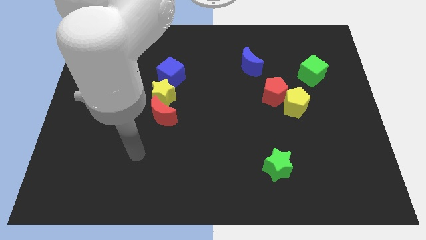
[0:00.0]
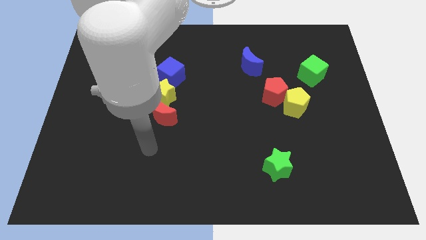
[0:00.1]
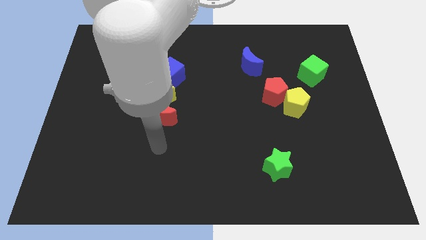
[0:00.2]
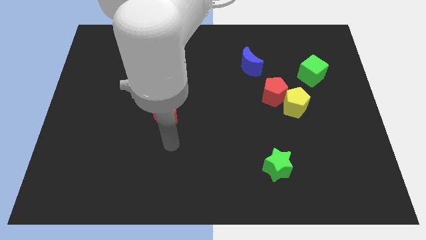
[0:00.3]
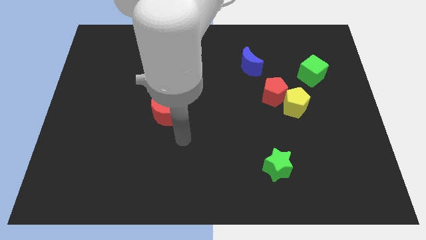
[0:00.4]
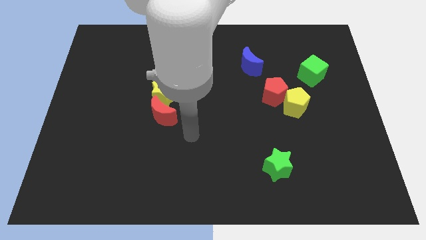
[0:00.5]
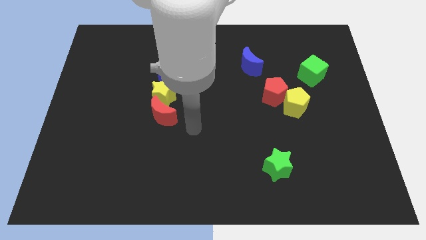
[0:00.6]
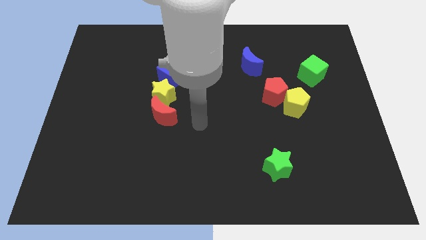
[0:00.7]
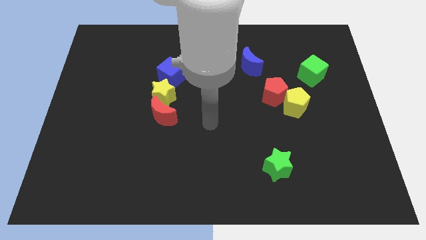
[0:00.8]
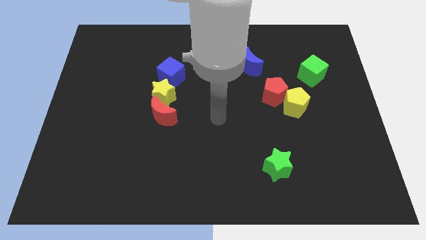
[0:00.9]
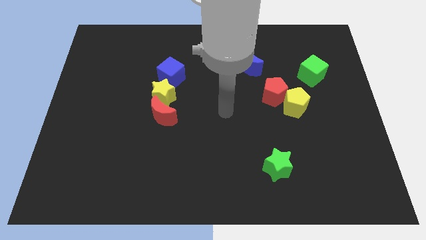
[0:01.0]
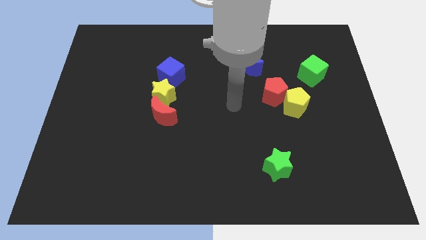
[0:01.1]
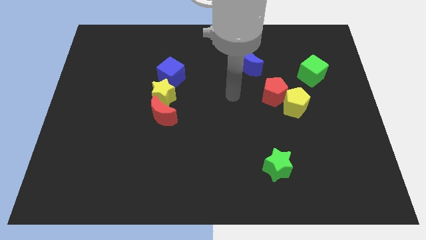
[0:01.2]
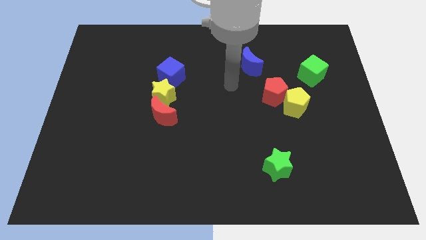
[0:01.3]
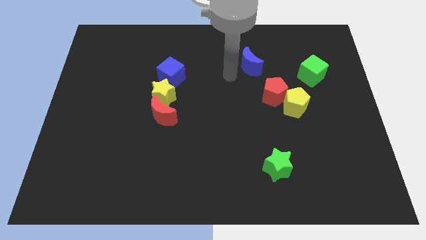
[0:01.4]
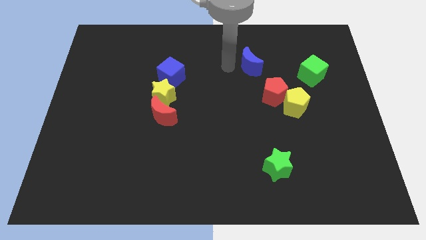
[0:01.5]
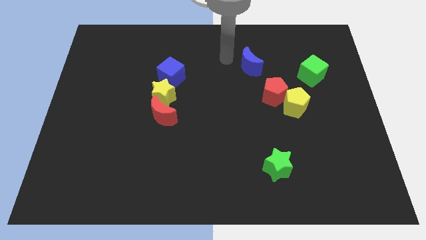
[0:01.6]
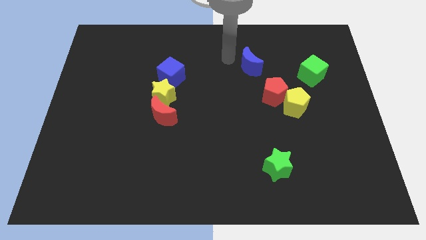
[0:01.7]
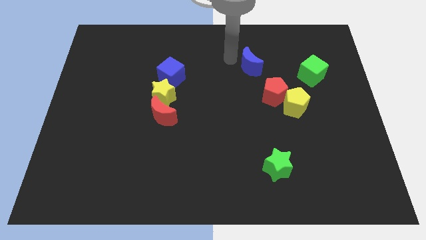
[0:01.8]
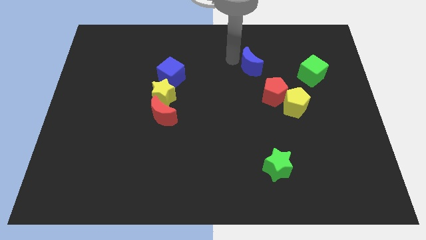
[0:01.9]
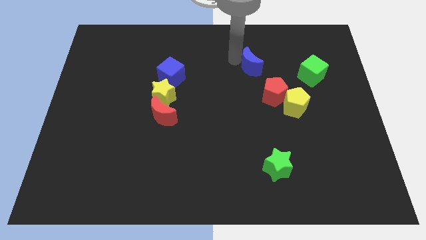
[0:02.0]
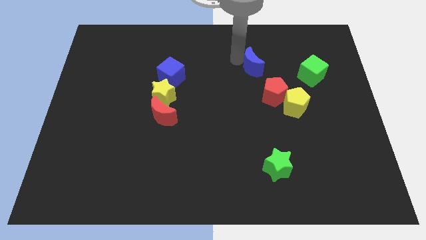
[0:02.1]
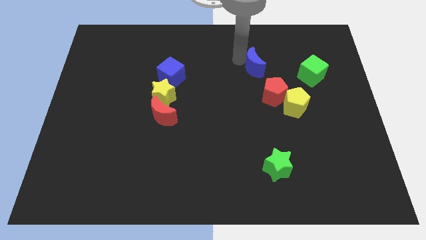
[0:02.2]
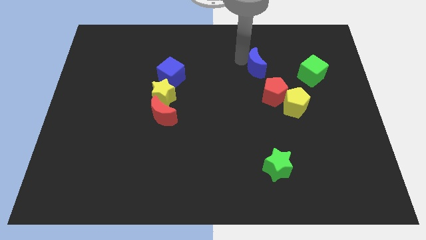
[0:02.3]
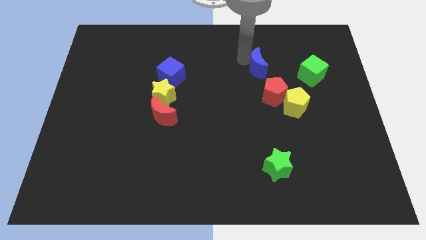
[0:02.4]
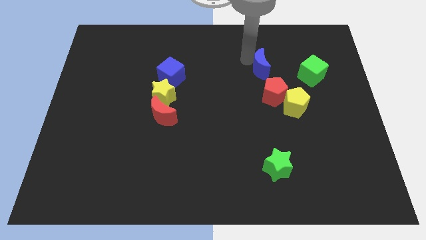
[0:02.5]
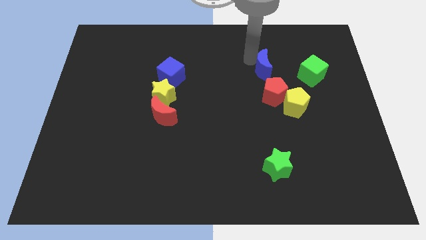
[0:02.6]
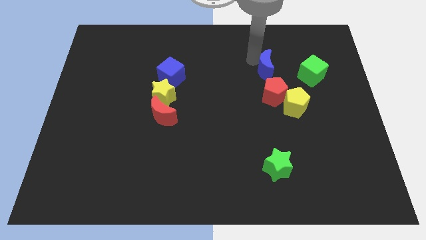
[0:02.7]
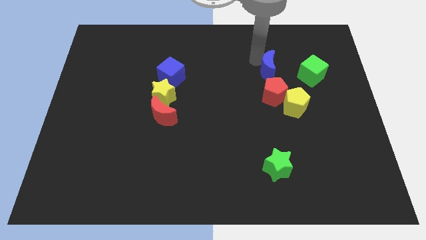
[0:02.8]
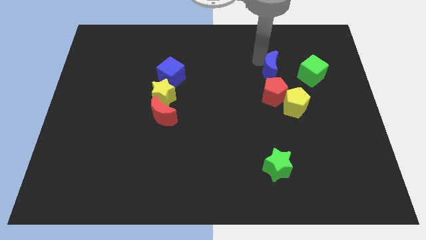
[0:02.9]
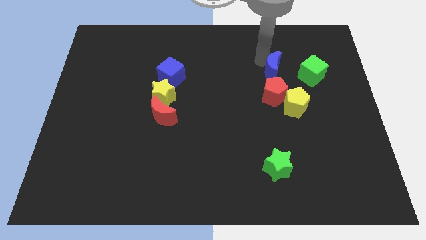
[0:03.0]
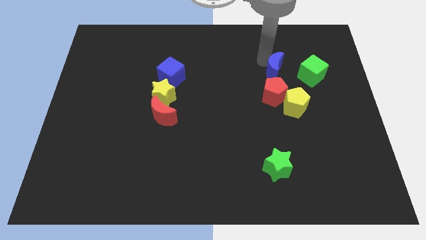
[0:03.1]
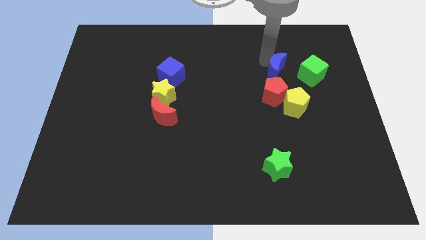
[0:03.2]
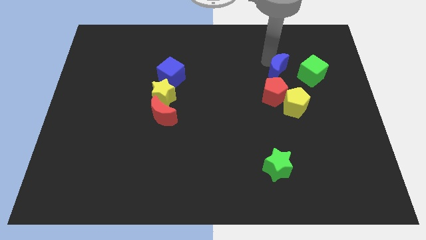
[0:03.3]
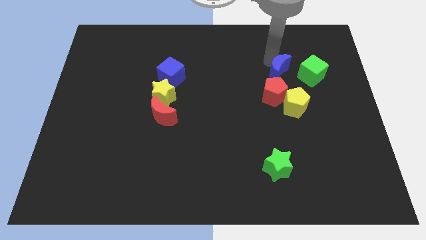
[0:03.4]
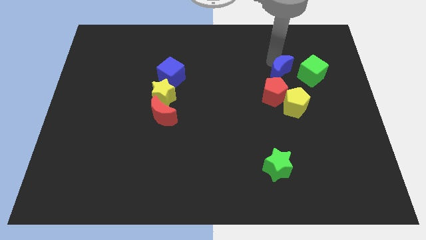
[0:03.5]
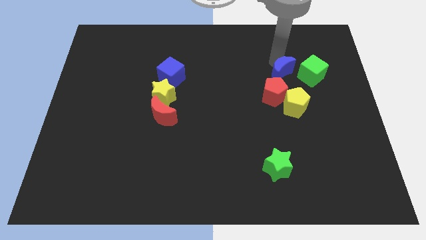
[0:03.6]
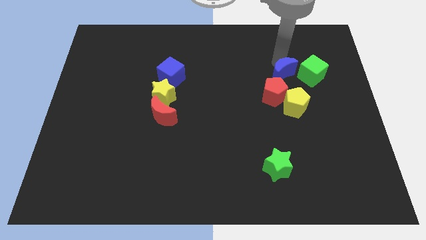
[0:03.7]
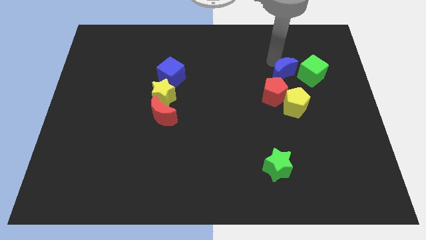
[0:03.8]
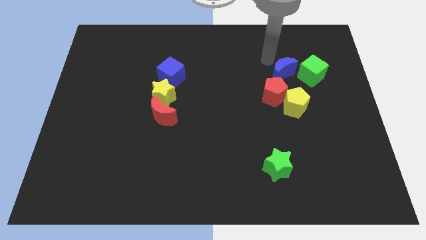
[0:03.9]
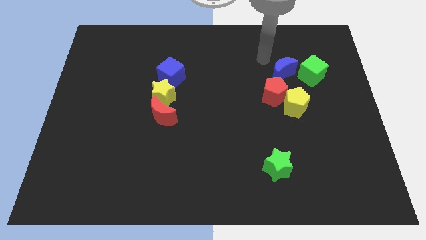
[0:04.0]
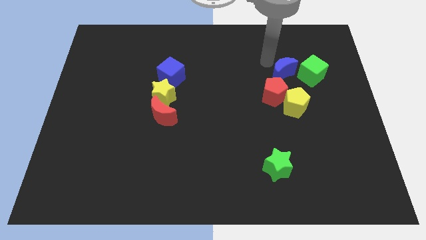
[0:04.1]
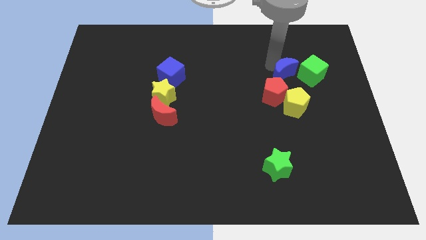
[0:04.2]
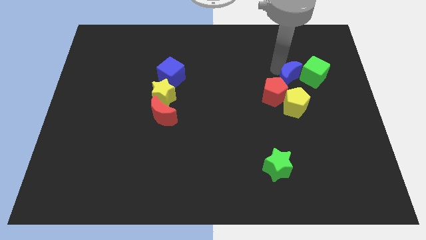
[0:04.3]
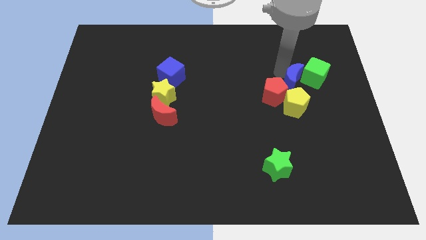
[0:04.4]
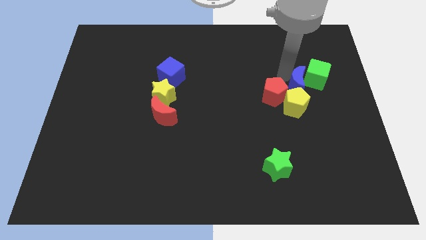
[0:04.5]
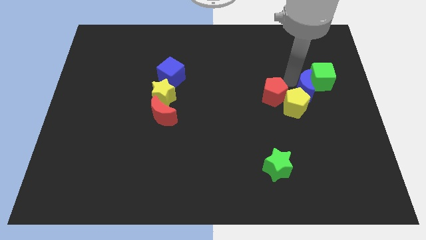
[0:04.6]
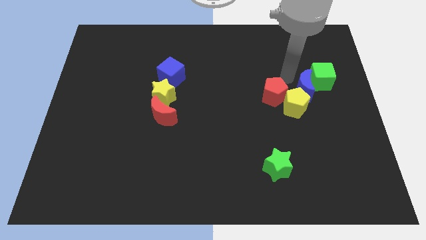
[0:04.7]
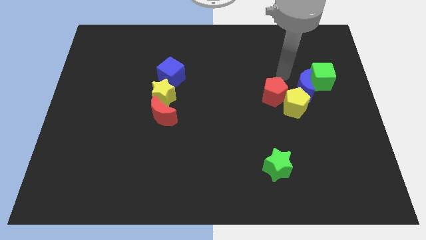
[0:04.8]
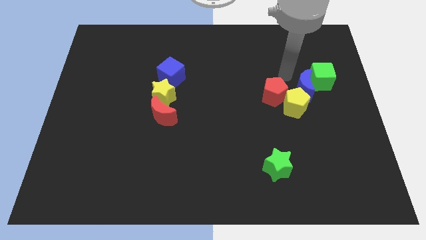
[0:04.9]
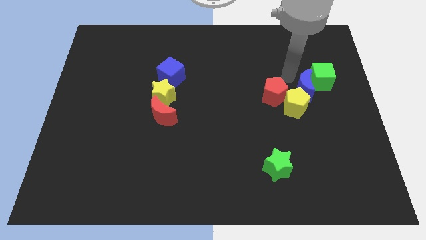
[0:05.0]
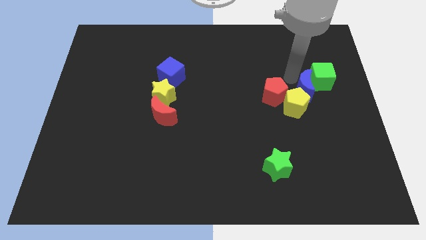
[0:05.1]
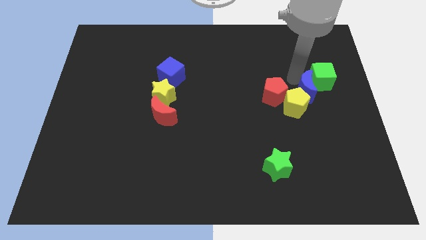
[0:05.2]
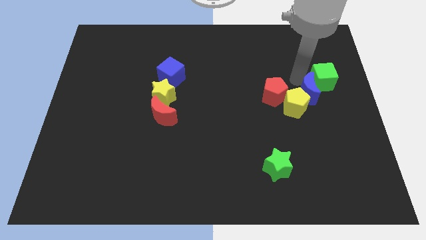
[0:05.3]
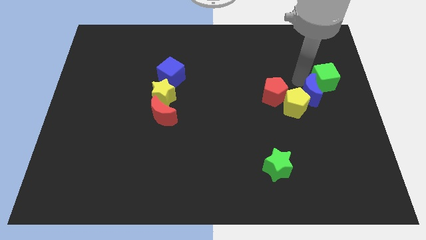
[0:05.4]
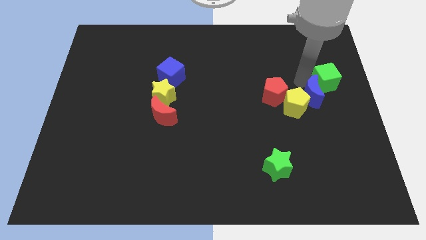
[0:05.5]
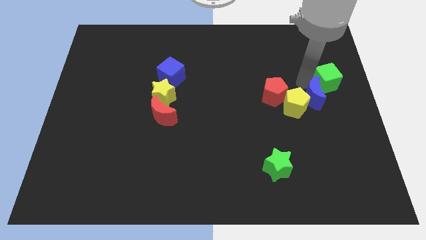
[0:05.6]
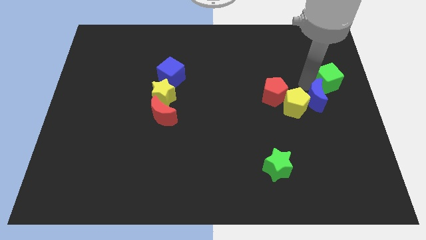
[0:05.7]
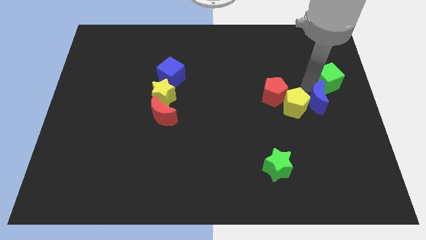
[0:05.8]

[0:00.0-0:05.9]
slide the blue moon to the right side of the board
